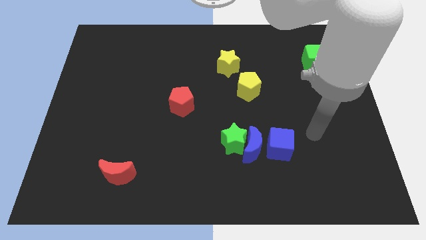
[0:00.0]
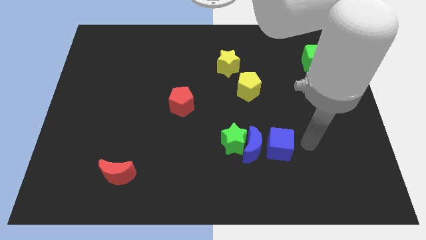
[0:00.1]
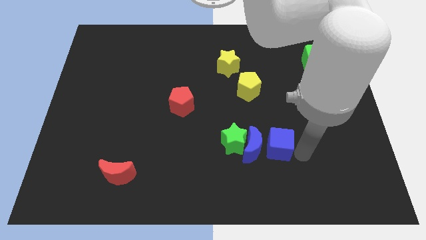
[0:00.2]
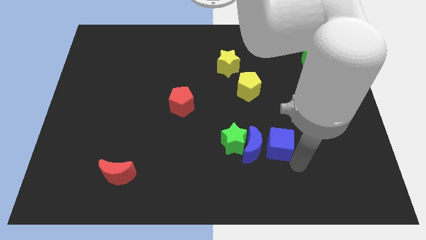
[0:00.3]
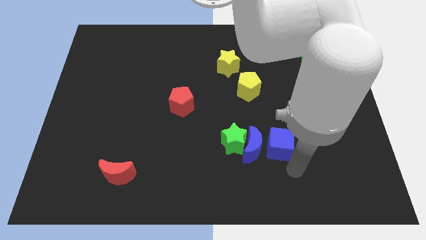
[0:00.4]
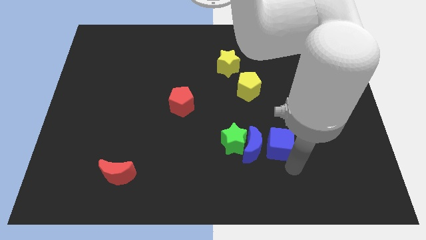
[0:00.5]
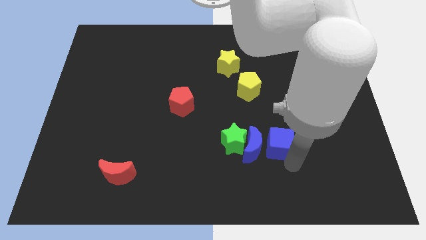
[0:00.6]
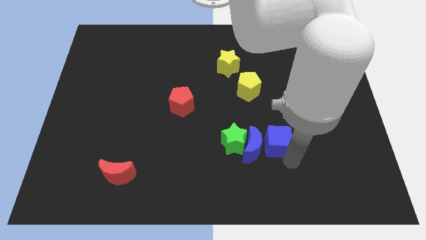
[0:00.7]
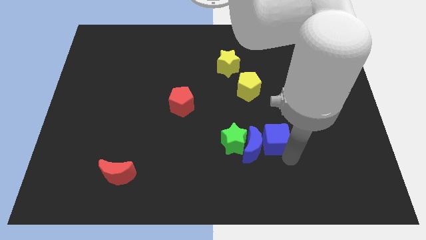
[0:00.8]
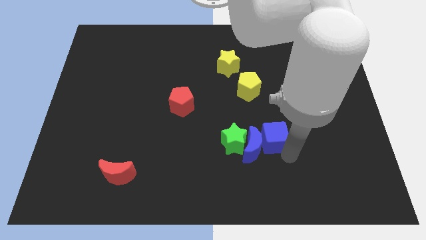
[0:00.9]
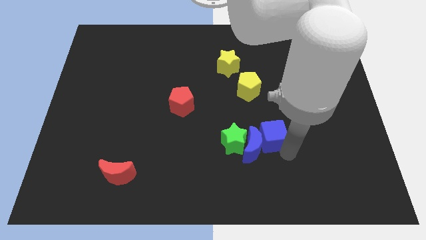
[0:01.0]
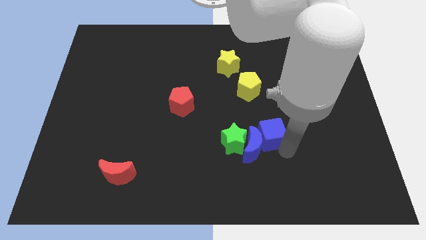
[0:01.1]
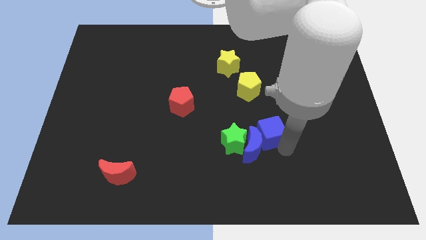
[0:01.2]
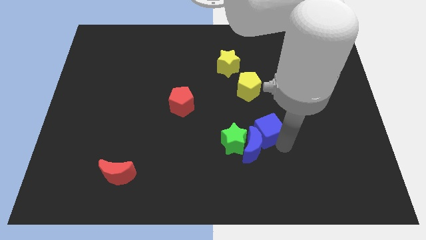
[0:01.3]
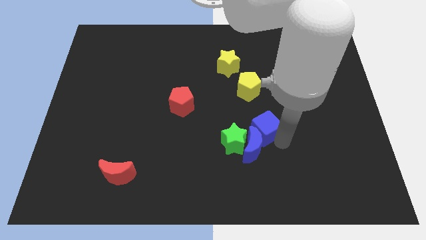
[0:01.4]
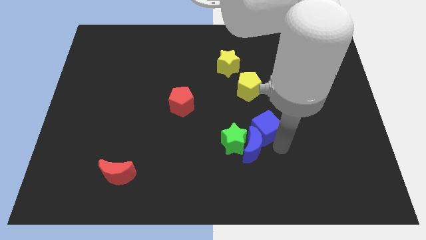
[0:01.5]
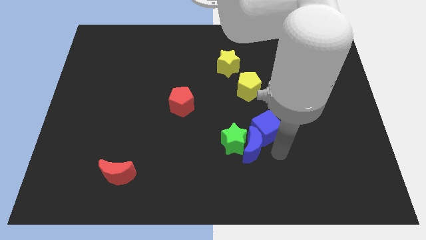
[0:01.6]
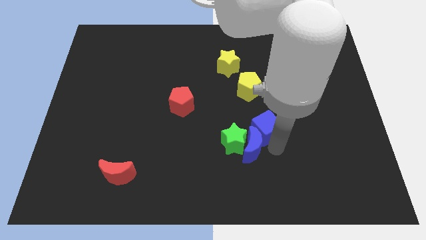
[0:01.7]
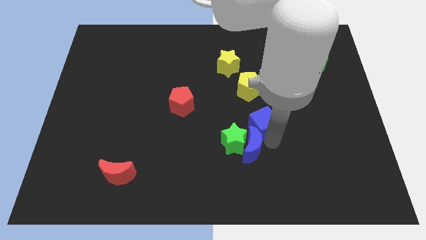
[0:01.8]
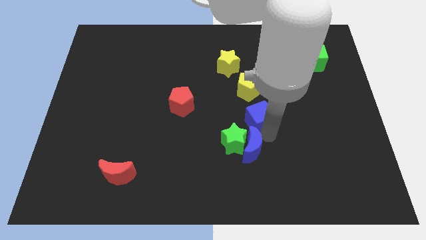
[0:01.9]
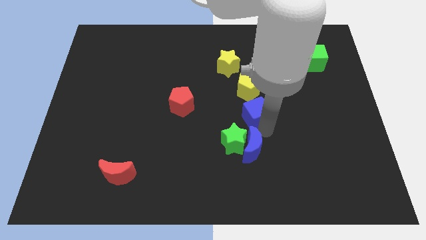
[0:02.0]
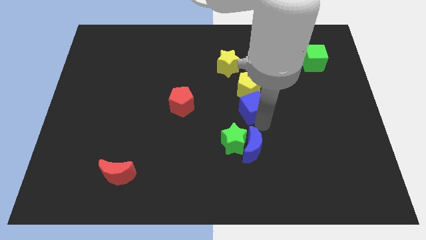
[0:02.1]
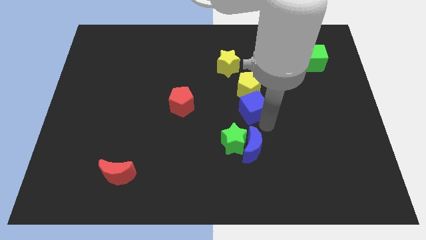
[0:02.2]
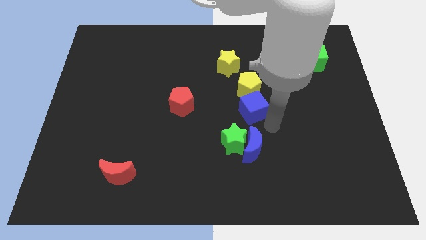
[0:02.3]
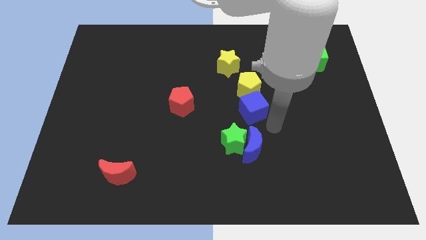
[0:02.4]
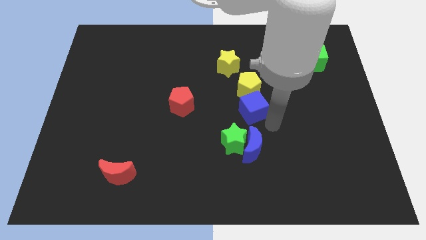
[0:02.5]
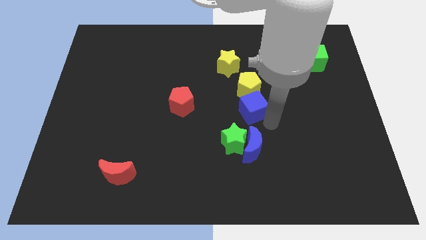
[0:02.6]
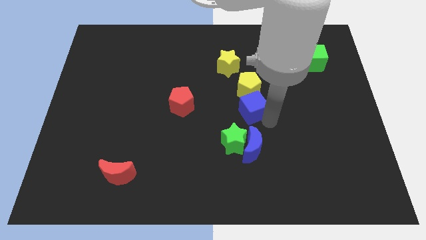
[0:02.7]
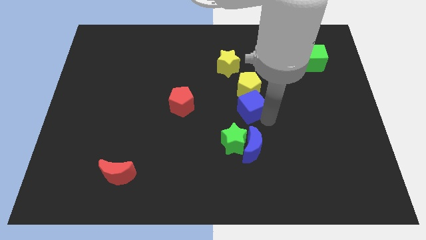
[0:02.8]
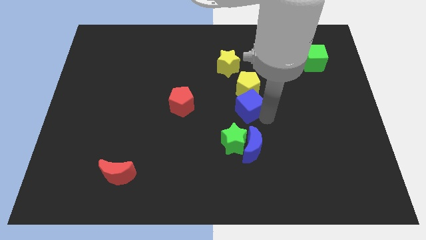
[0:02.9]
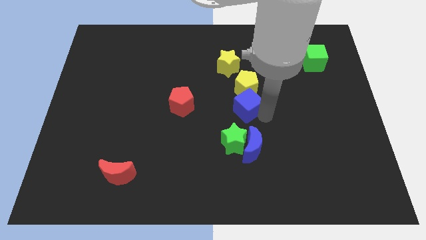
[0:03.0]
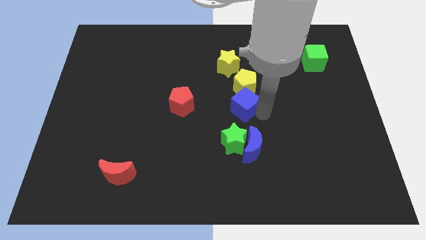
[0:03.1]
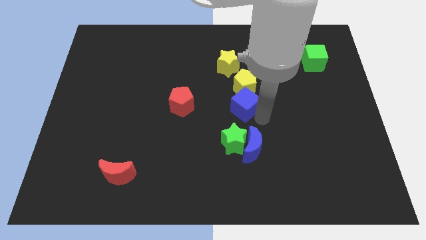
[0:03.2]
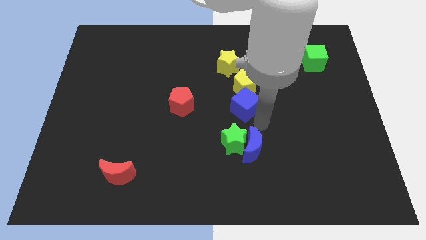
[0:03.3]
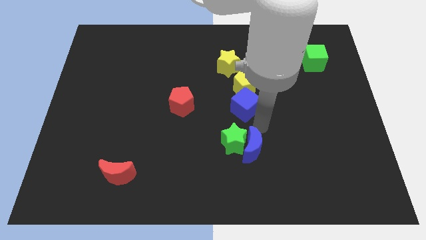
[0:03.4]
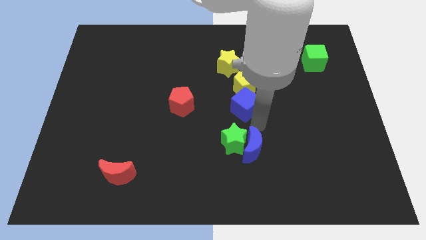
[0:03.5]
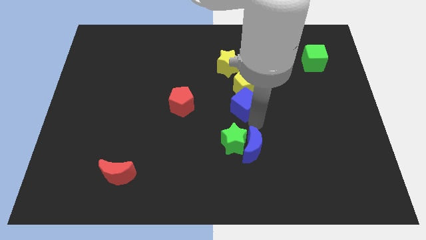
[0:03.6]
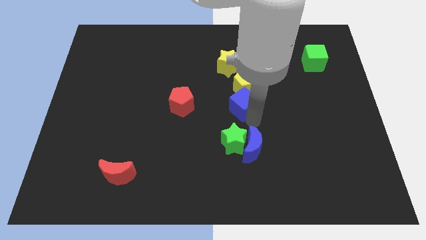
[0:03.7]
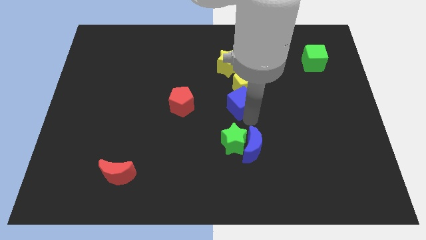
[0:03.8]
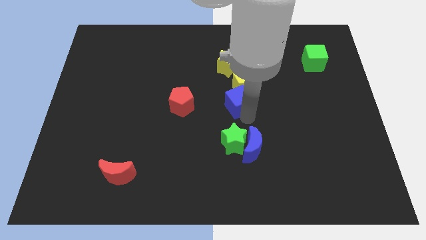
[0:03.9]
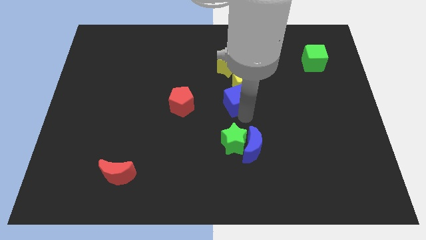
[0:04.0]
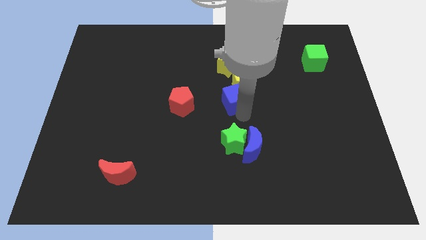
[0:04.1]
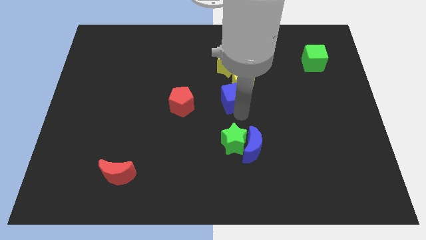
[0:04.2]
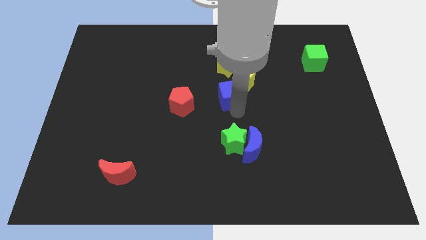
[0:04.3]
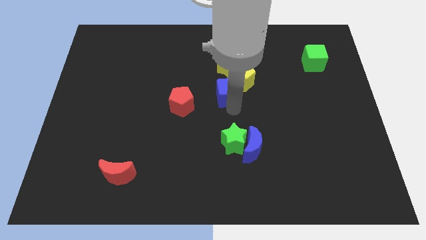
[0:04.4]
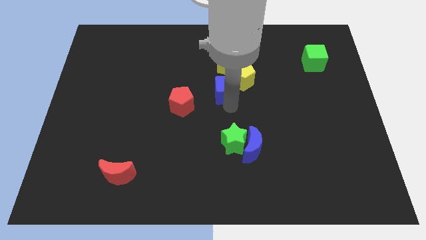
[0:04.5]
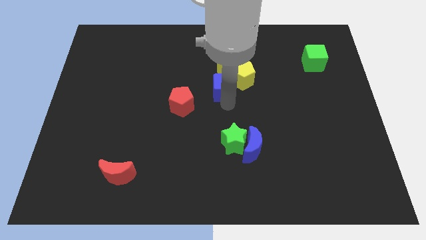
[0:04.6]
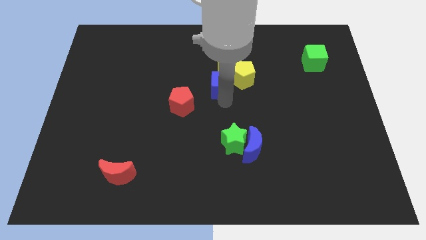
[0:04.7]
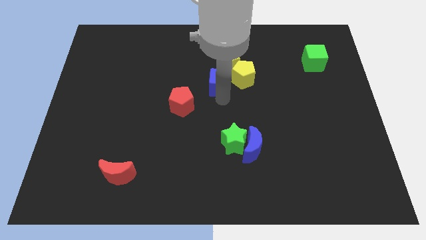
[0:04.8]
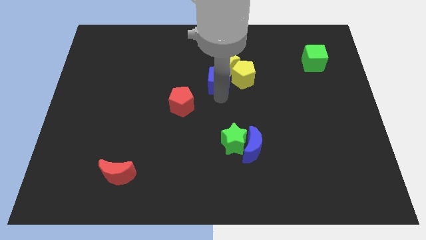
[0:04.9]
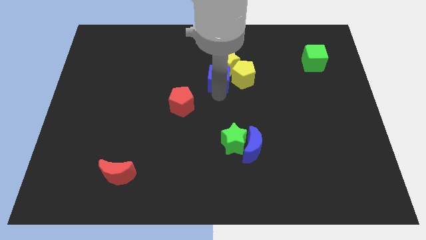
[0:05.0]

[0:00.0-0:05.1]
push the blue cube towards the yellow star

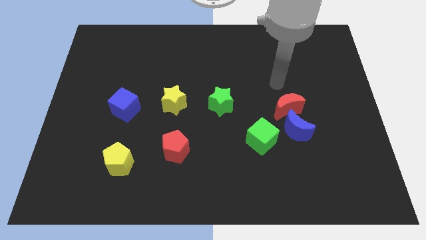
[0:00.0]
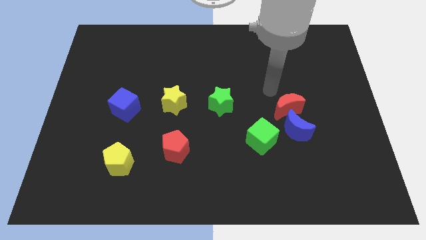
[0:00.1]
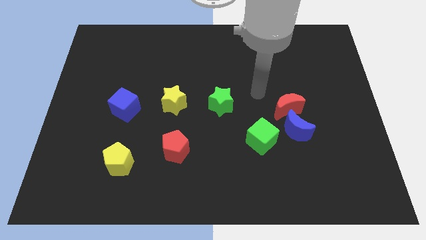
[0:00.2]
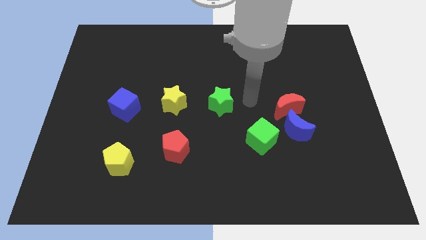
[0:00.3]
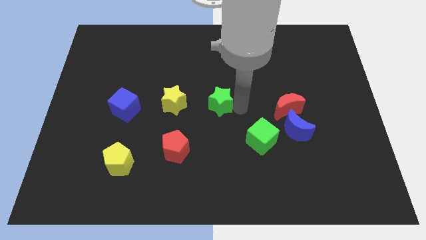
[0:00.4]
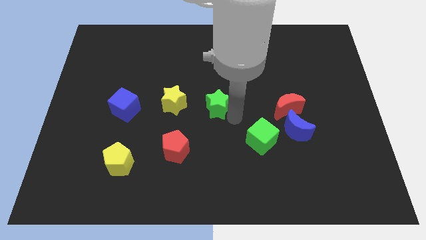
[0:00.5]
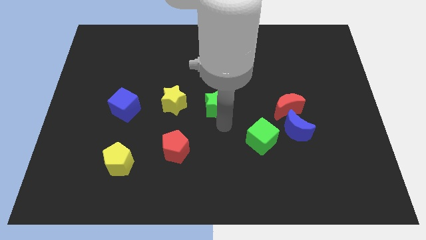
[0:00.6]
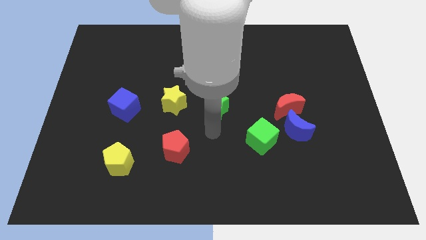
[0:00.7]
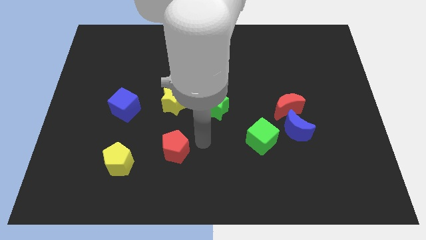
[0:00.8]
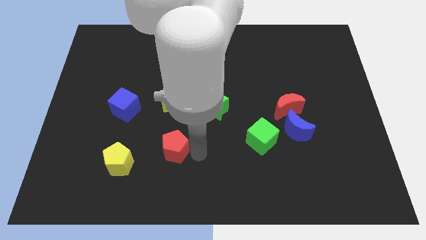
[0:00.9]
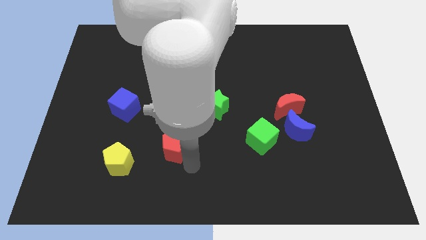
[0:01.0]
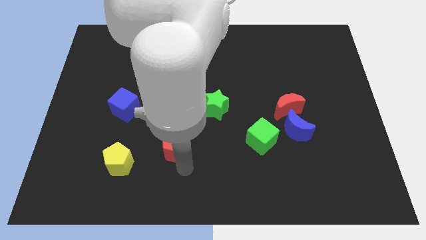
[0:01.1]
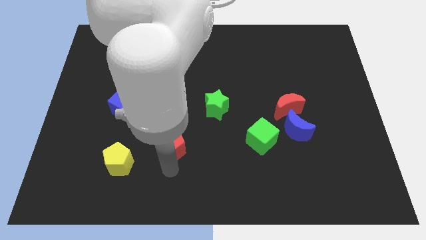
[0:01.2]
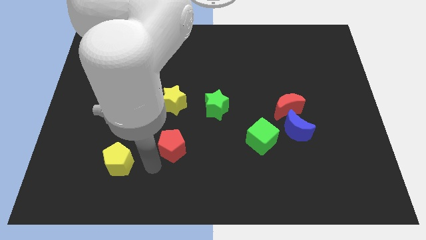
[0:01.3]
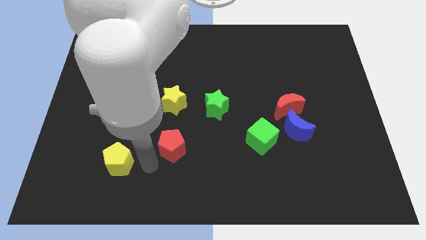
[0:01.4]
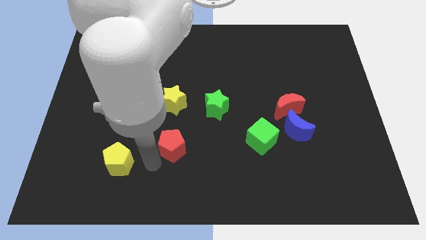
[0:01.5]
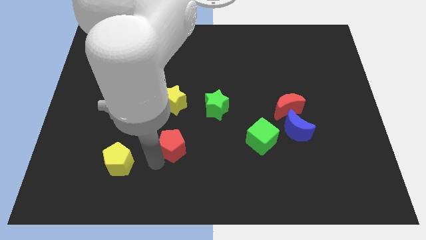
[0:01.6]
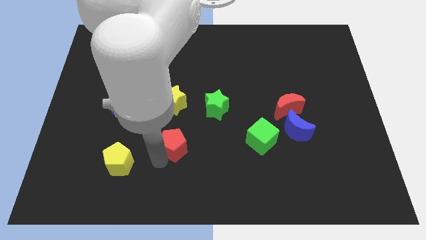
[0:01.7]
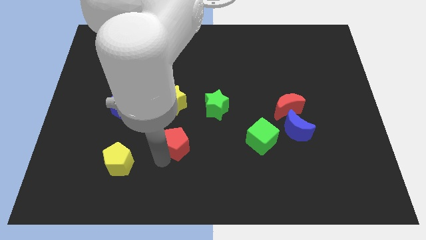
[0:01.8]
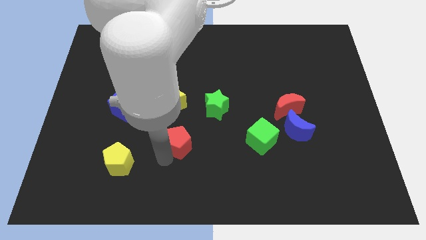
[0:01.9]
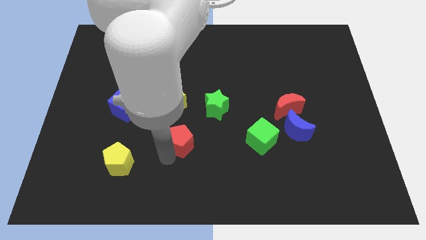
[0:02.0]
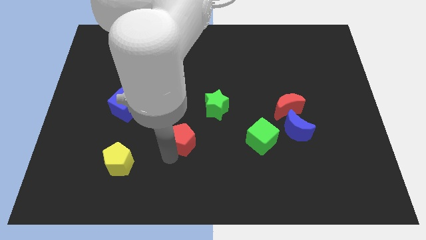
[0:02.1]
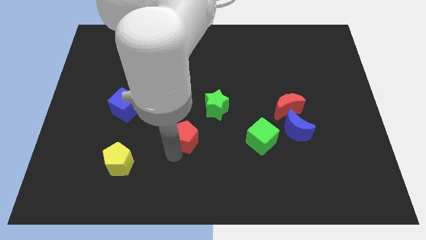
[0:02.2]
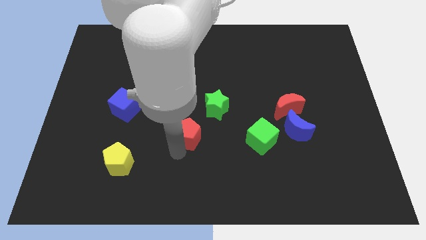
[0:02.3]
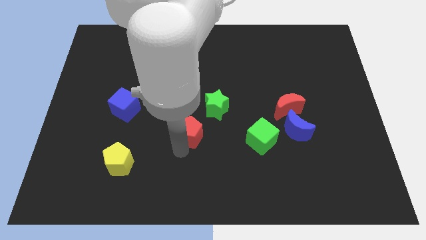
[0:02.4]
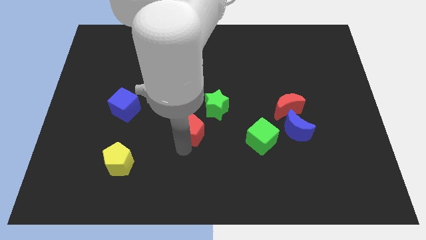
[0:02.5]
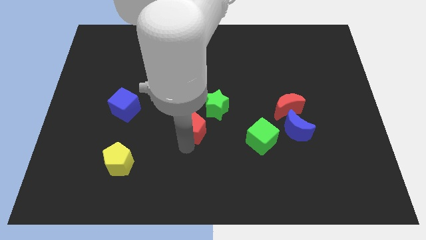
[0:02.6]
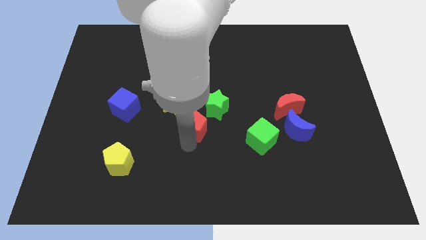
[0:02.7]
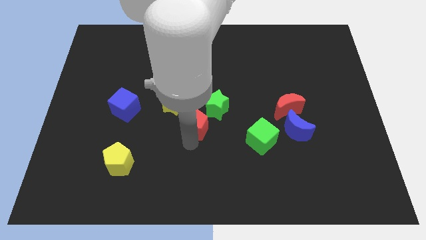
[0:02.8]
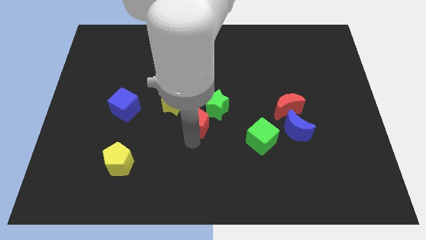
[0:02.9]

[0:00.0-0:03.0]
slide the red pentagon close to the green star
